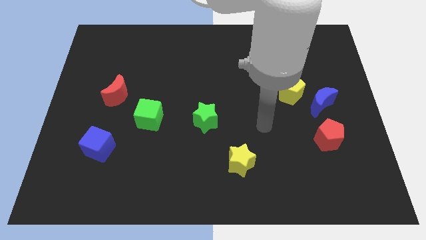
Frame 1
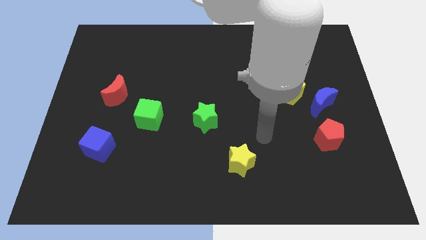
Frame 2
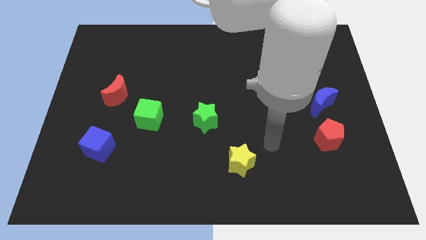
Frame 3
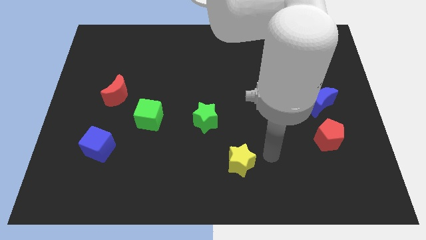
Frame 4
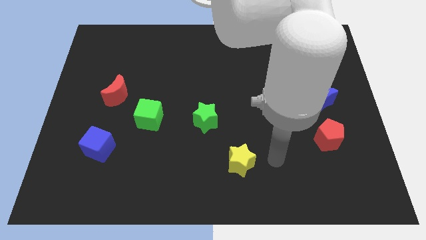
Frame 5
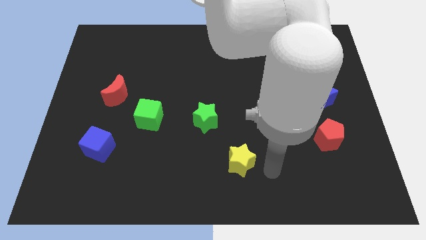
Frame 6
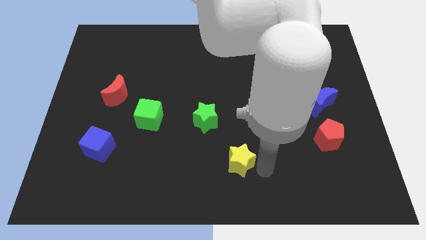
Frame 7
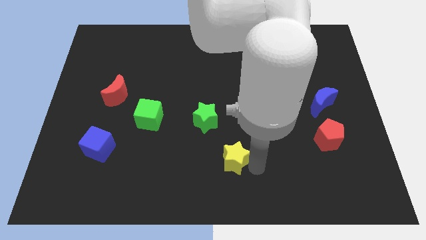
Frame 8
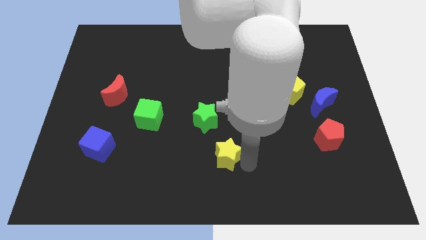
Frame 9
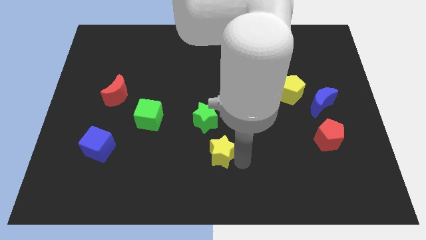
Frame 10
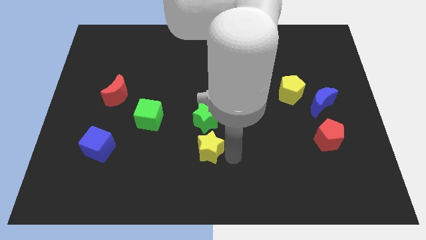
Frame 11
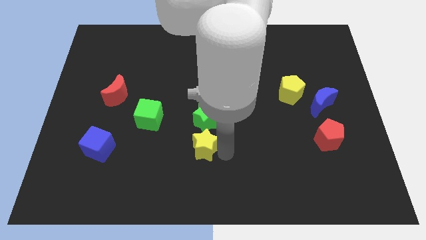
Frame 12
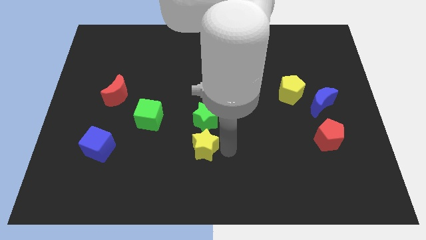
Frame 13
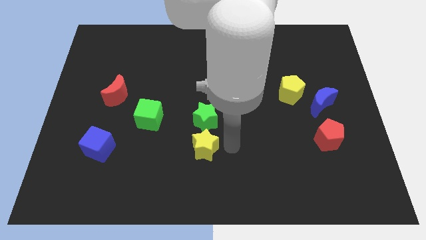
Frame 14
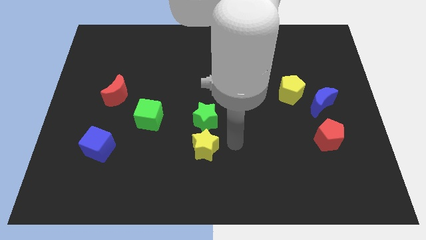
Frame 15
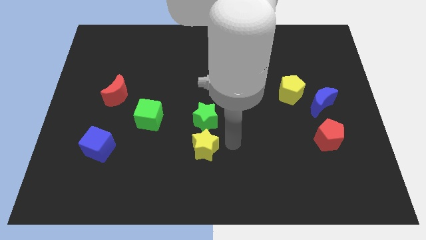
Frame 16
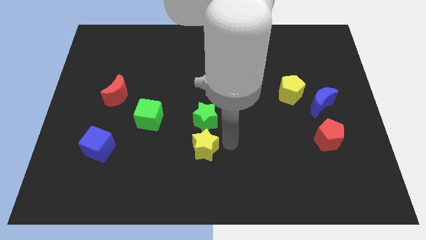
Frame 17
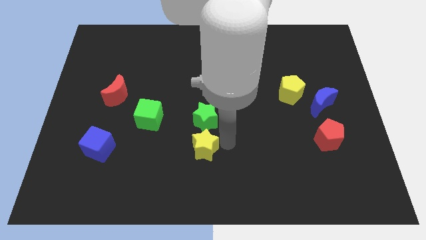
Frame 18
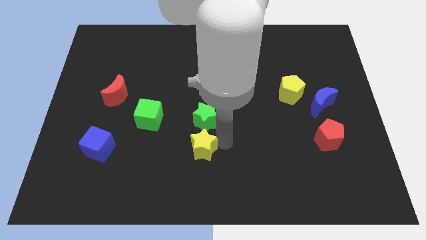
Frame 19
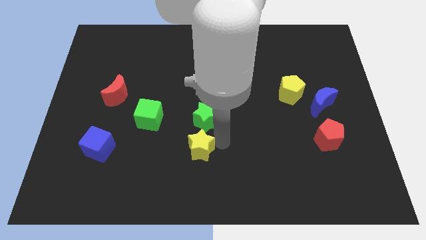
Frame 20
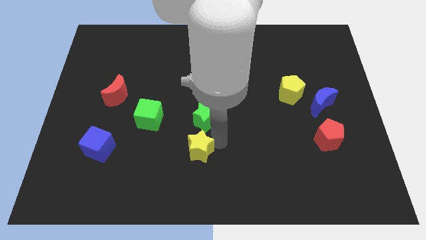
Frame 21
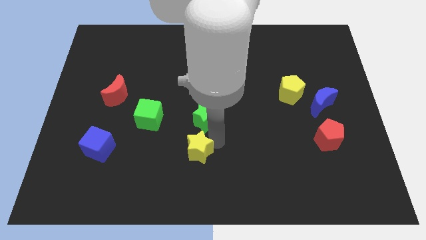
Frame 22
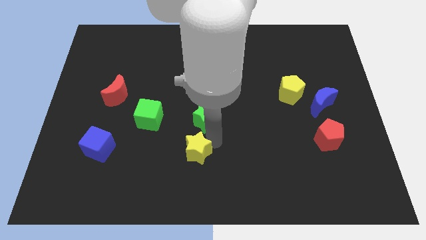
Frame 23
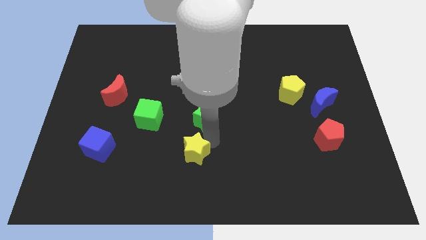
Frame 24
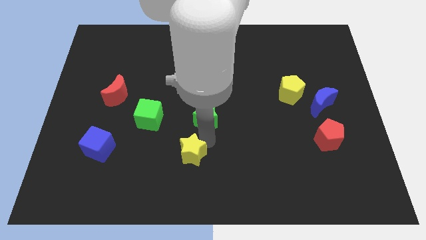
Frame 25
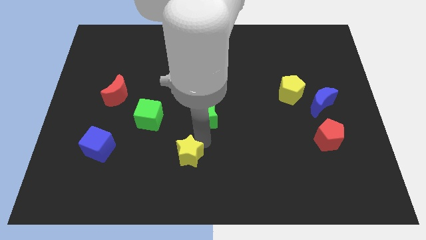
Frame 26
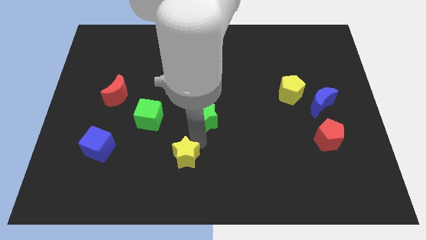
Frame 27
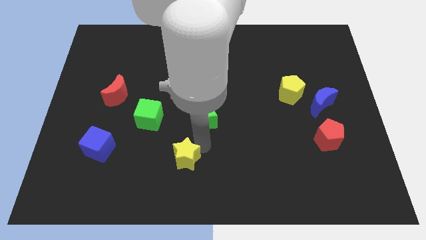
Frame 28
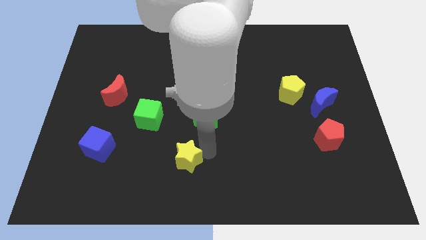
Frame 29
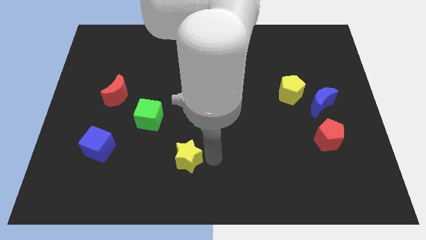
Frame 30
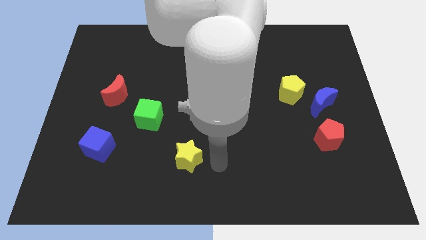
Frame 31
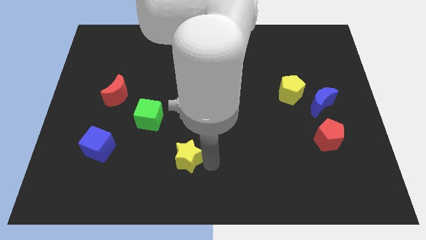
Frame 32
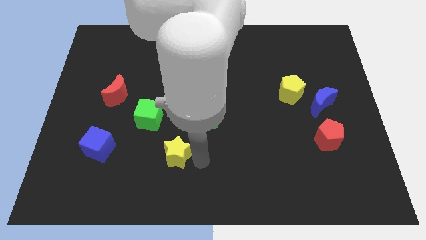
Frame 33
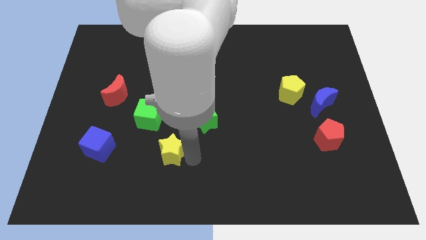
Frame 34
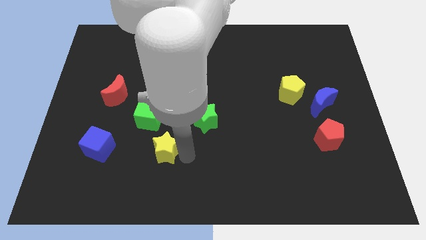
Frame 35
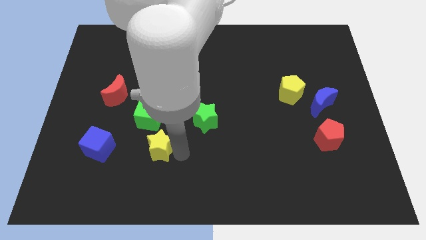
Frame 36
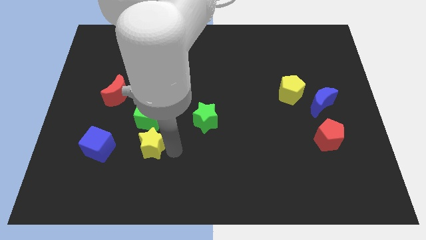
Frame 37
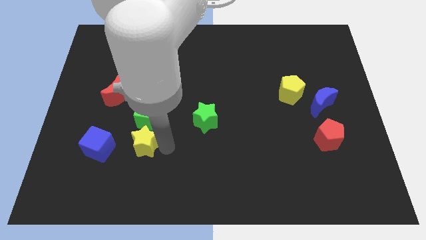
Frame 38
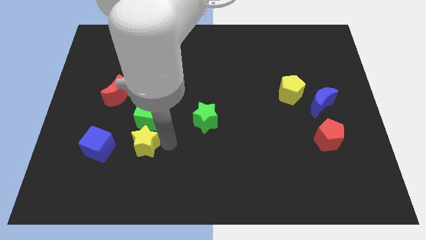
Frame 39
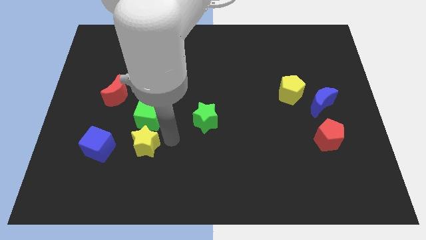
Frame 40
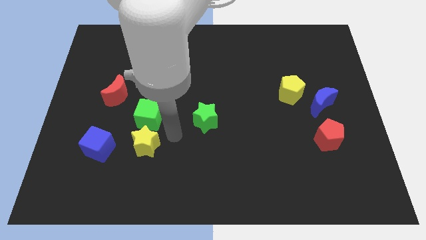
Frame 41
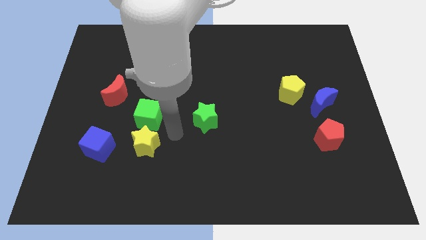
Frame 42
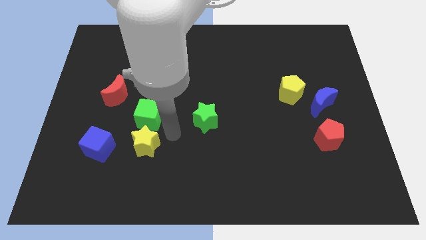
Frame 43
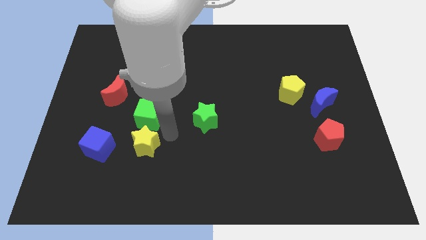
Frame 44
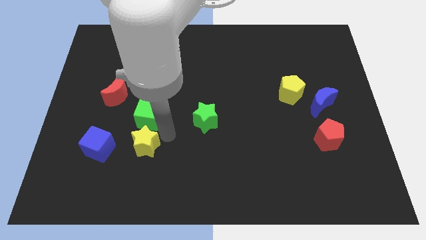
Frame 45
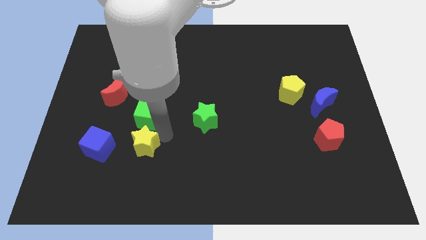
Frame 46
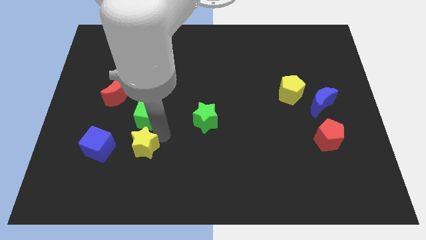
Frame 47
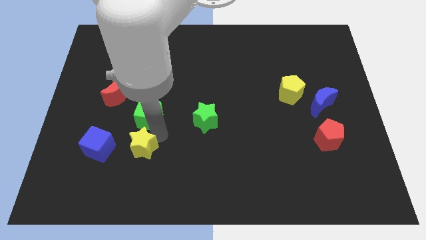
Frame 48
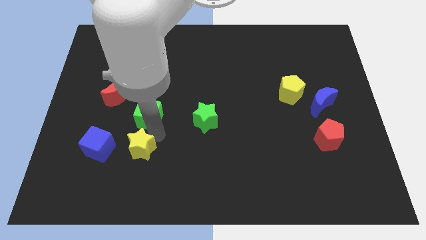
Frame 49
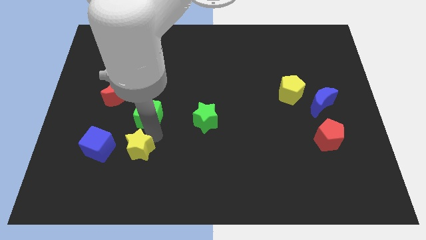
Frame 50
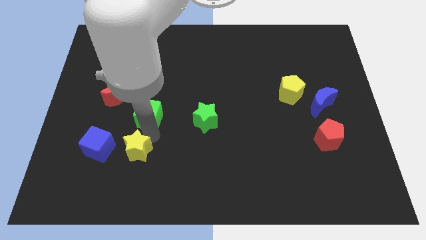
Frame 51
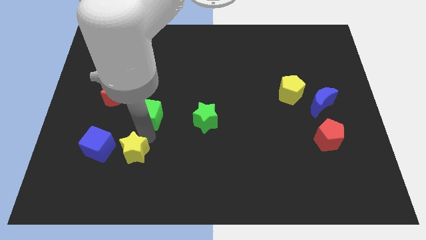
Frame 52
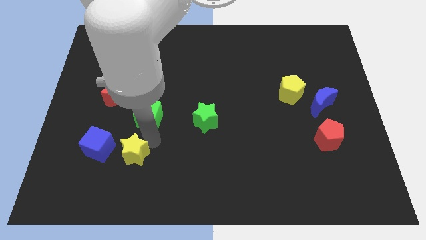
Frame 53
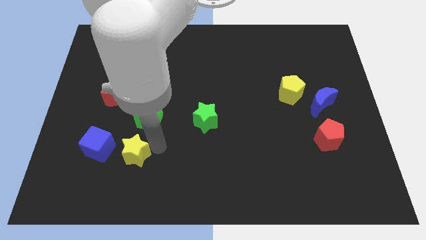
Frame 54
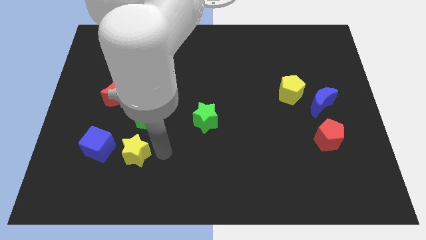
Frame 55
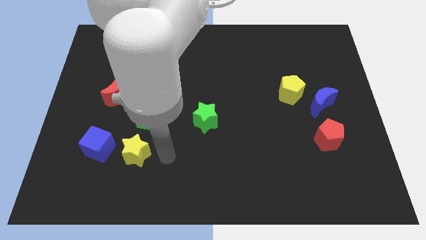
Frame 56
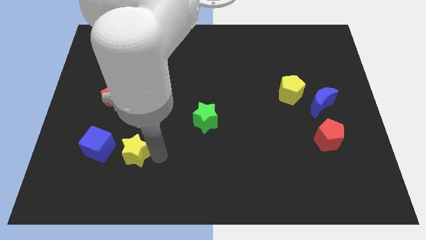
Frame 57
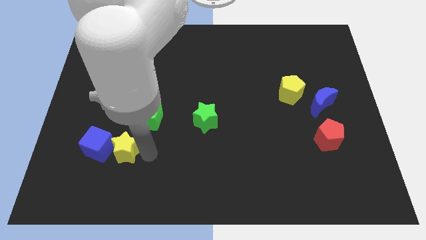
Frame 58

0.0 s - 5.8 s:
slide the yellow star close to the blue cube

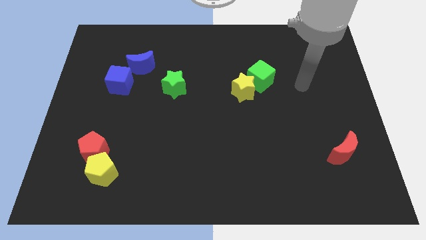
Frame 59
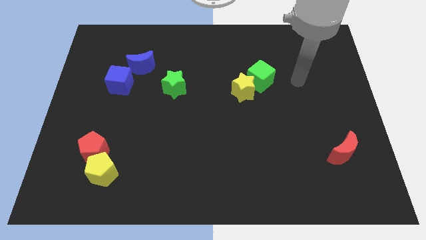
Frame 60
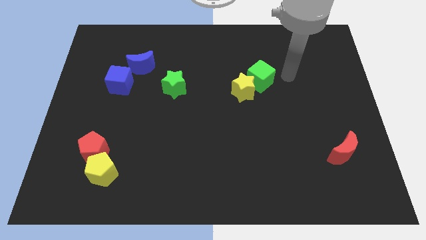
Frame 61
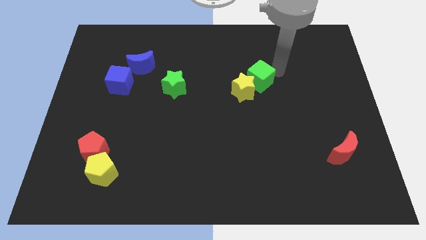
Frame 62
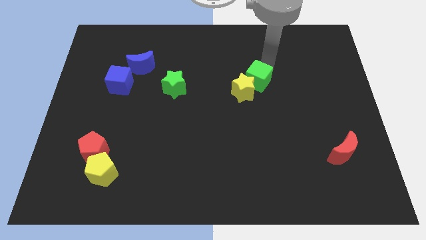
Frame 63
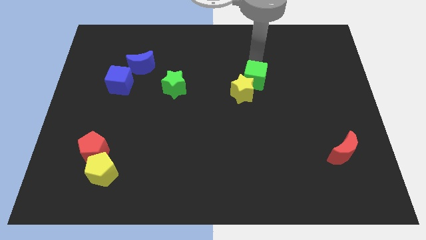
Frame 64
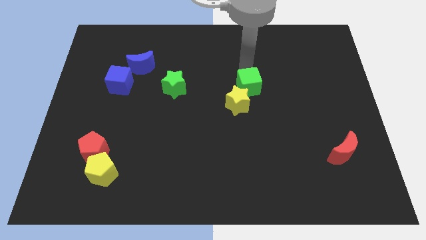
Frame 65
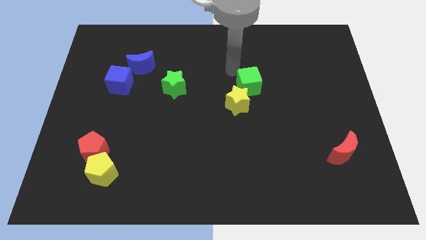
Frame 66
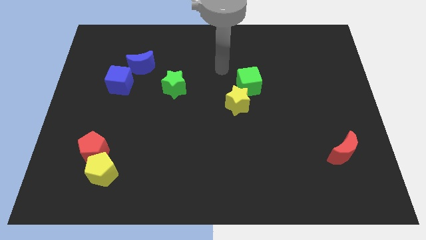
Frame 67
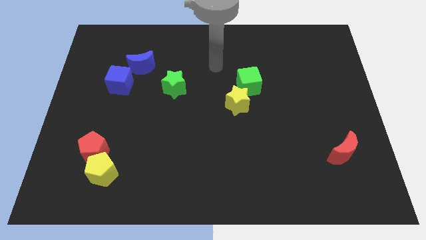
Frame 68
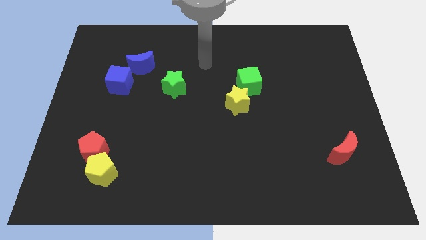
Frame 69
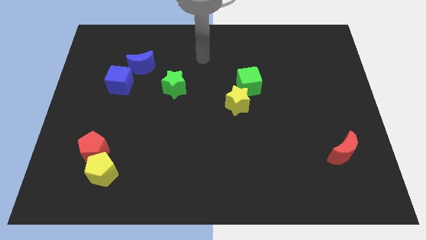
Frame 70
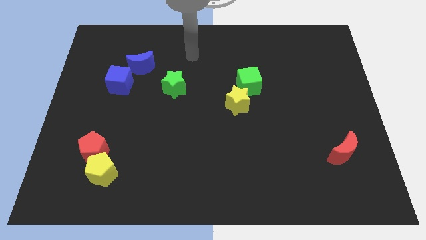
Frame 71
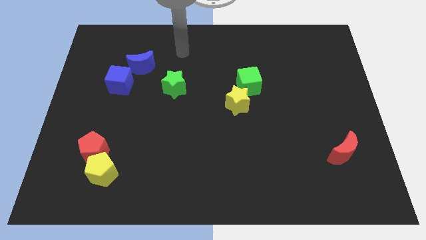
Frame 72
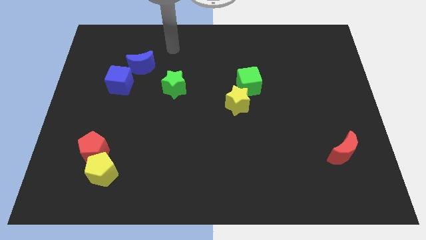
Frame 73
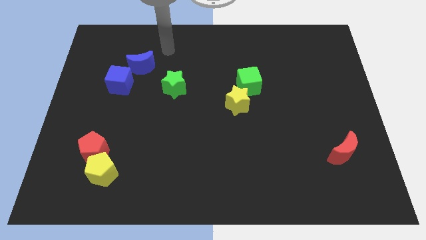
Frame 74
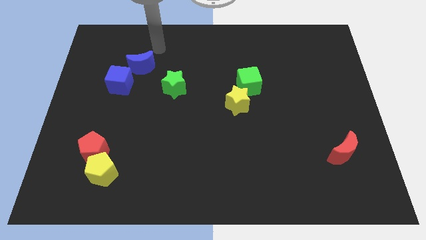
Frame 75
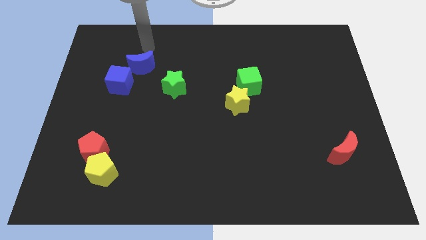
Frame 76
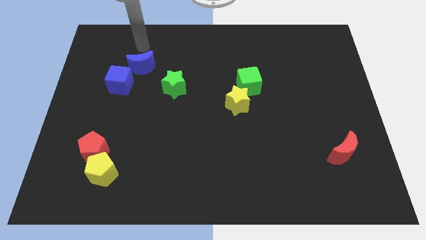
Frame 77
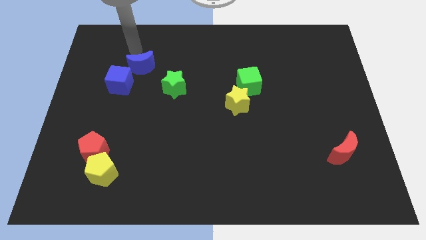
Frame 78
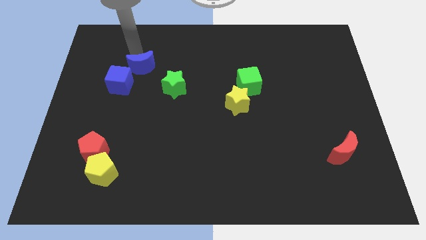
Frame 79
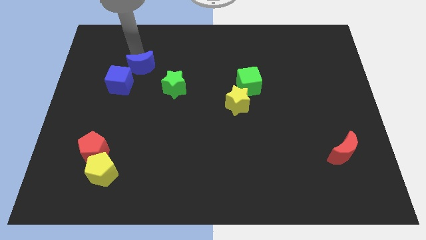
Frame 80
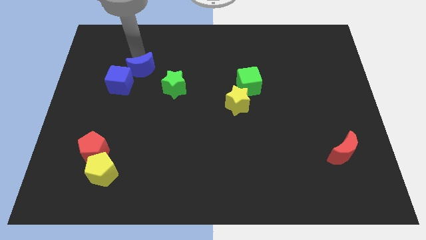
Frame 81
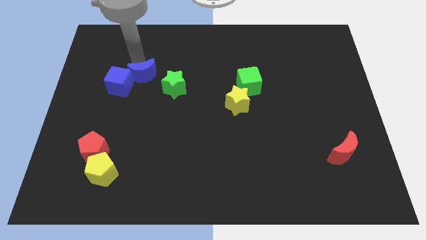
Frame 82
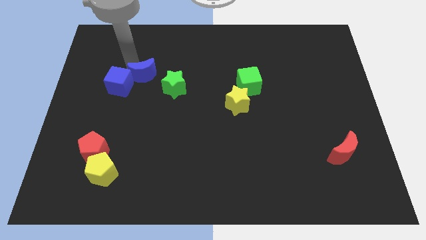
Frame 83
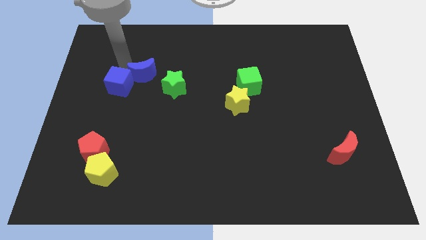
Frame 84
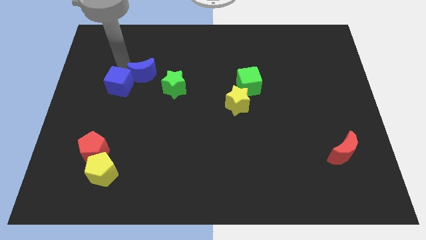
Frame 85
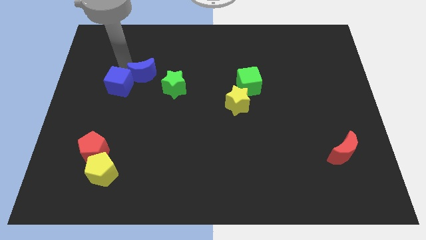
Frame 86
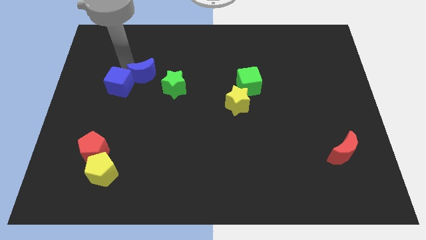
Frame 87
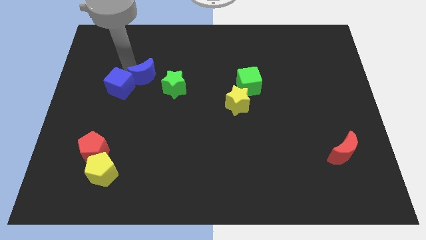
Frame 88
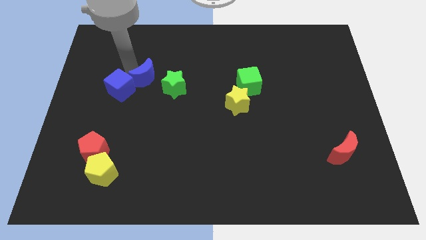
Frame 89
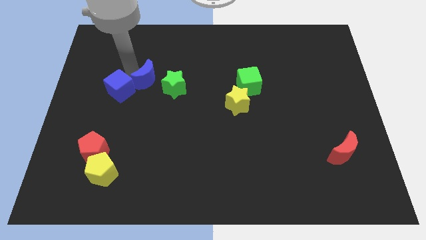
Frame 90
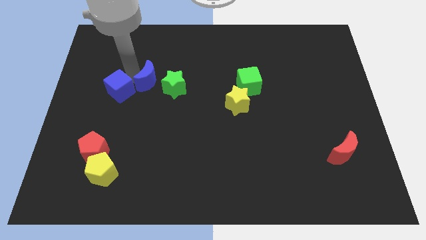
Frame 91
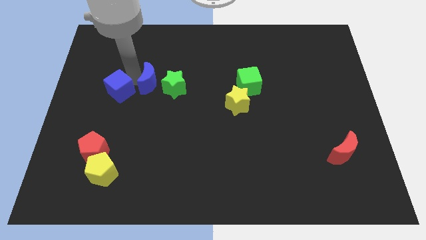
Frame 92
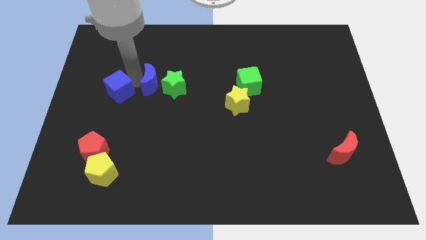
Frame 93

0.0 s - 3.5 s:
slide the blue moon to the green star
